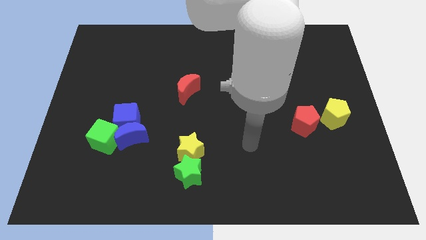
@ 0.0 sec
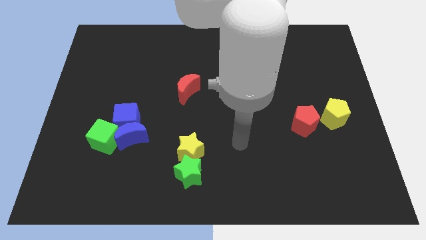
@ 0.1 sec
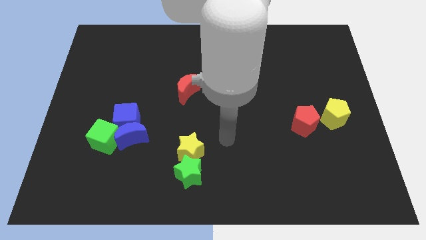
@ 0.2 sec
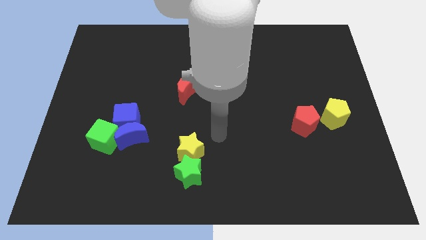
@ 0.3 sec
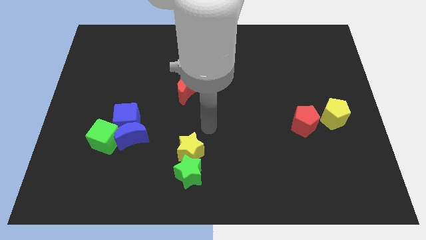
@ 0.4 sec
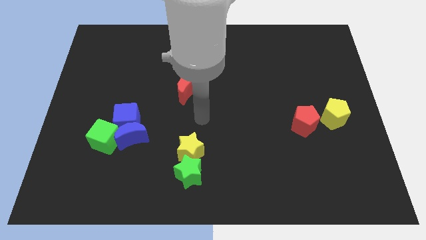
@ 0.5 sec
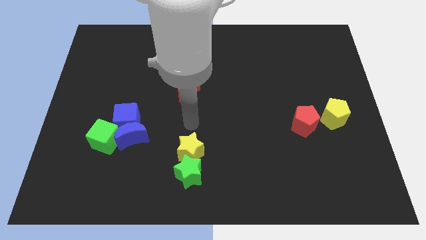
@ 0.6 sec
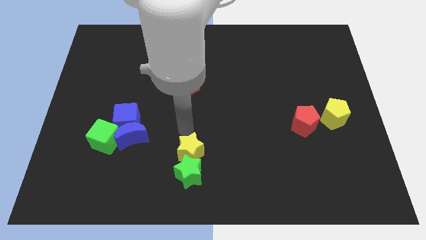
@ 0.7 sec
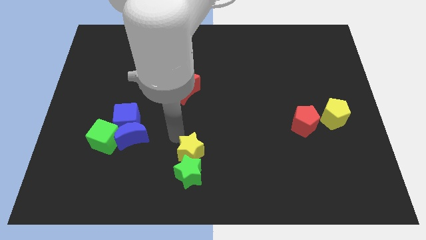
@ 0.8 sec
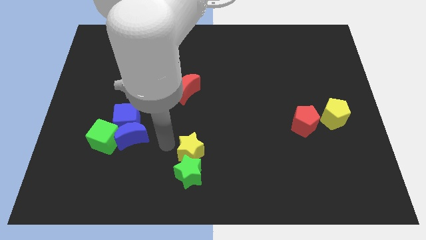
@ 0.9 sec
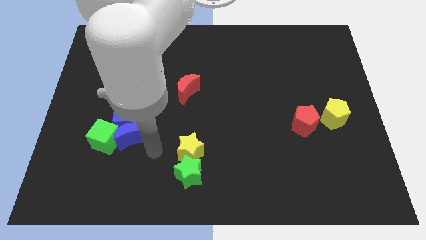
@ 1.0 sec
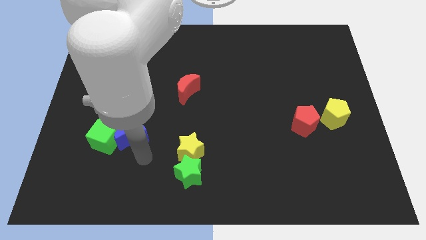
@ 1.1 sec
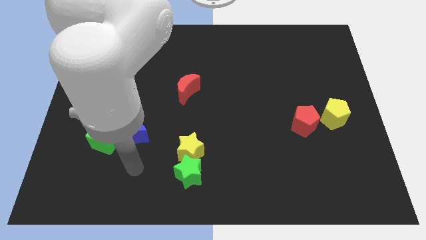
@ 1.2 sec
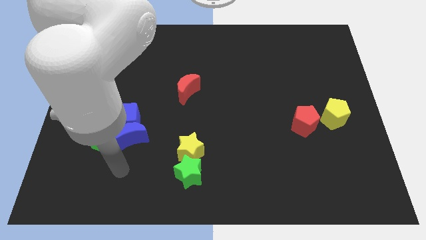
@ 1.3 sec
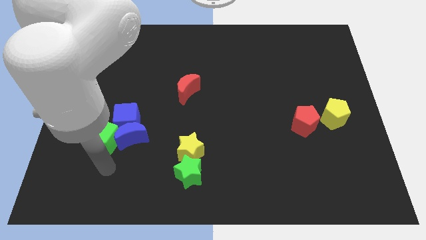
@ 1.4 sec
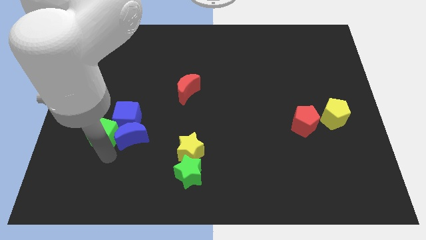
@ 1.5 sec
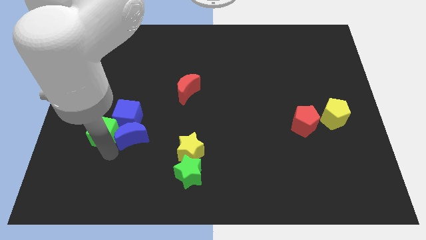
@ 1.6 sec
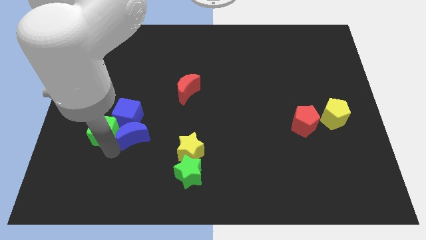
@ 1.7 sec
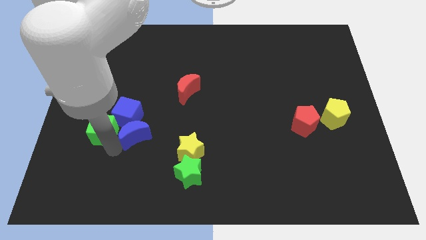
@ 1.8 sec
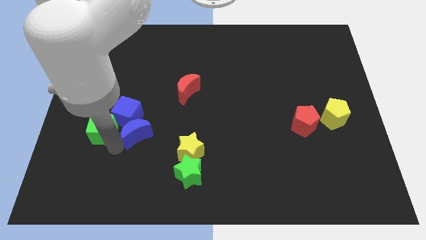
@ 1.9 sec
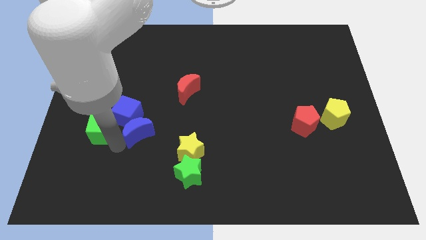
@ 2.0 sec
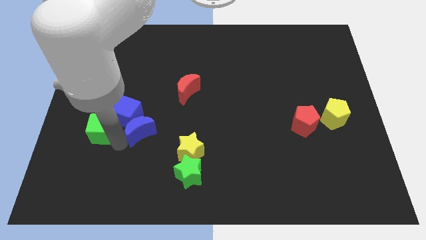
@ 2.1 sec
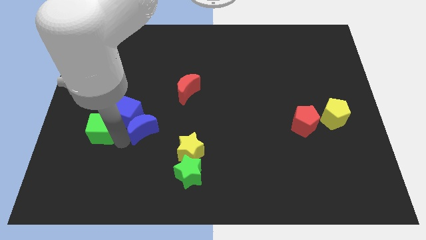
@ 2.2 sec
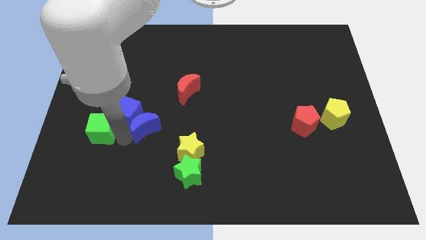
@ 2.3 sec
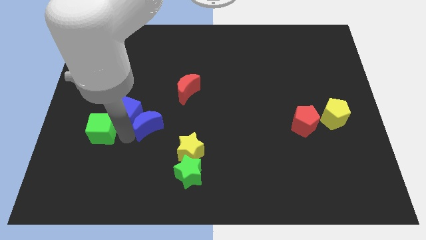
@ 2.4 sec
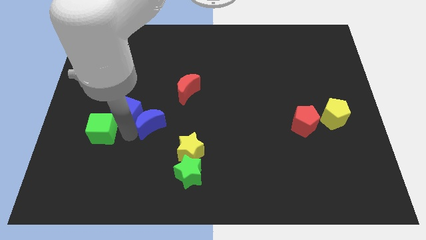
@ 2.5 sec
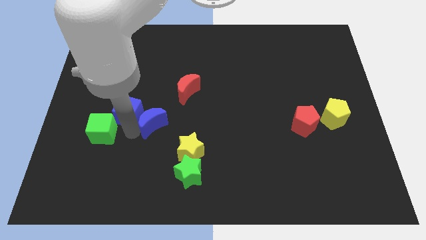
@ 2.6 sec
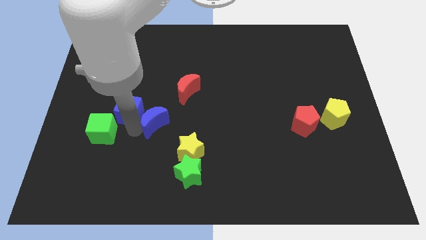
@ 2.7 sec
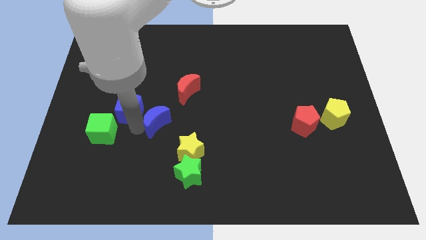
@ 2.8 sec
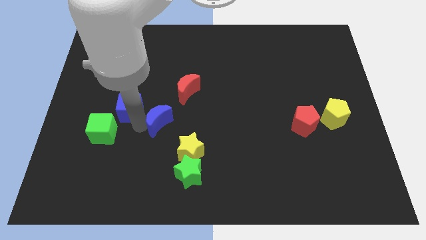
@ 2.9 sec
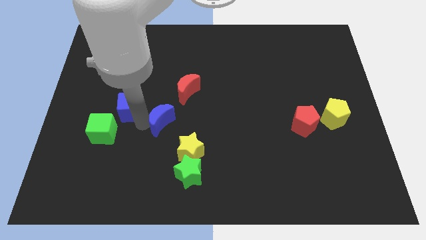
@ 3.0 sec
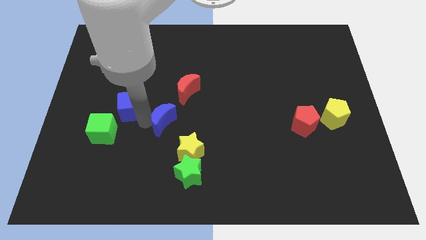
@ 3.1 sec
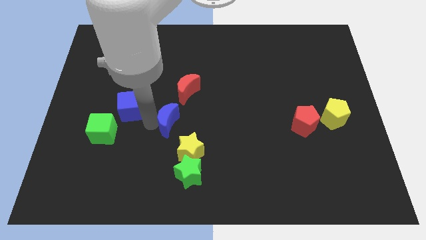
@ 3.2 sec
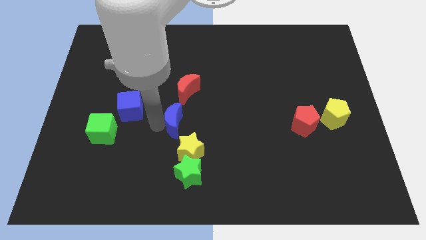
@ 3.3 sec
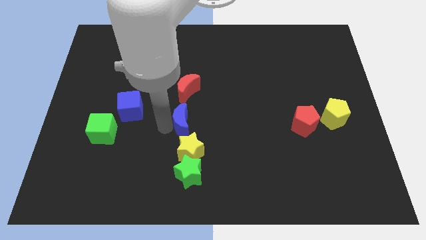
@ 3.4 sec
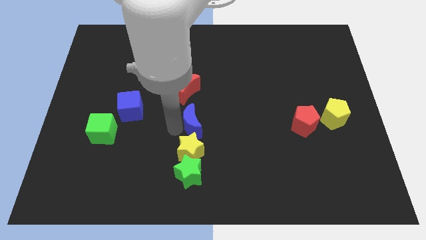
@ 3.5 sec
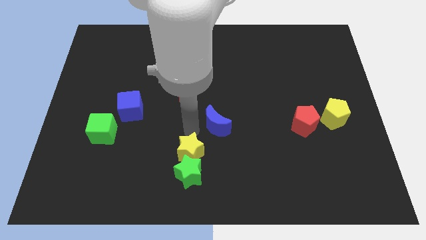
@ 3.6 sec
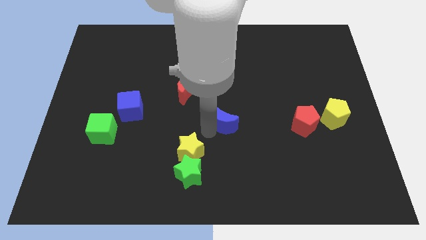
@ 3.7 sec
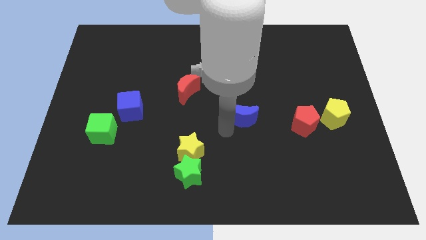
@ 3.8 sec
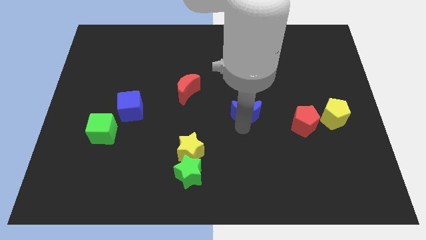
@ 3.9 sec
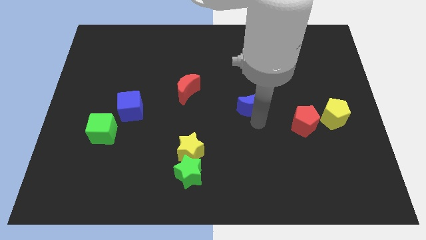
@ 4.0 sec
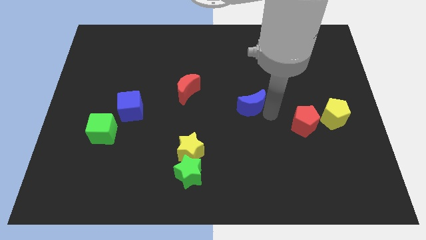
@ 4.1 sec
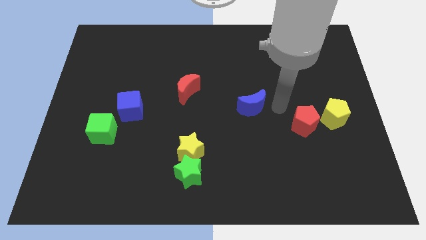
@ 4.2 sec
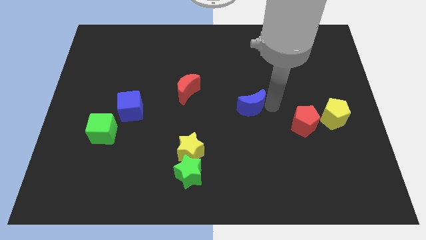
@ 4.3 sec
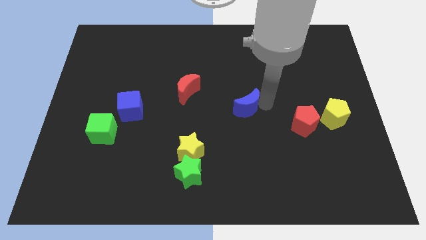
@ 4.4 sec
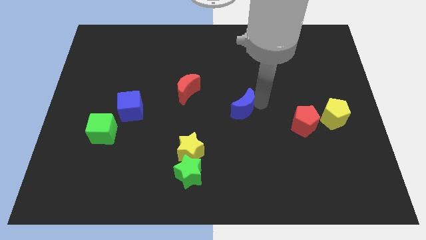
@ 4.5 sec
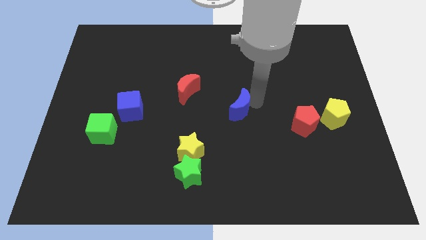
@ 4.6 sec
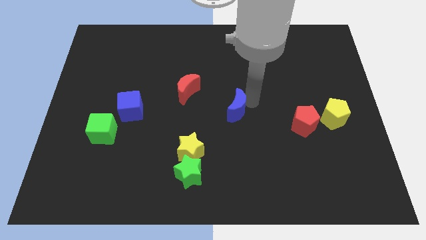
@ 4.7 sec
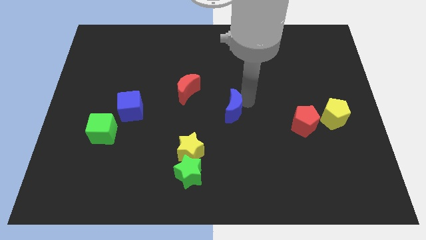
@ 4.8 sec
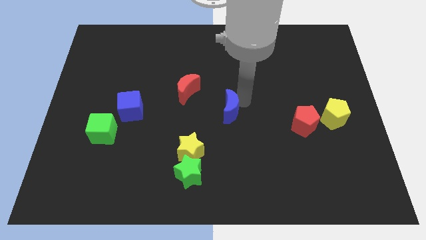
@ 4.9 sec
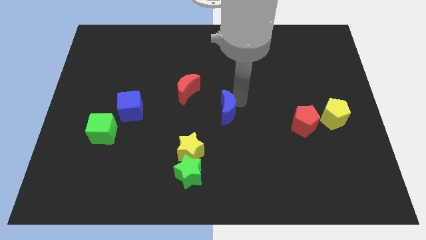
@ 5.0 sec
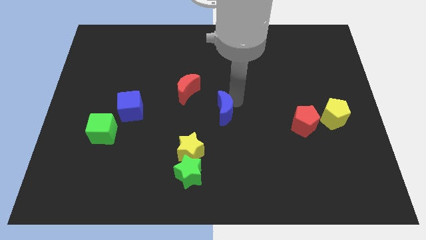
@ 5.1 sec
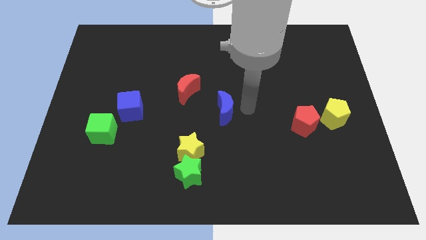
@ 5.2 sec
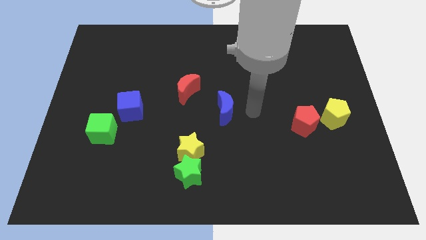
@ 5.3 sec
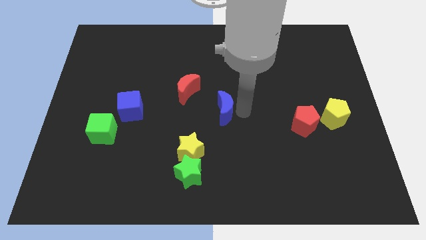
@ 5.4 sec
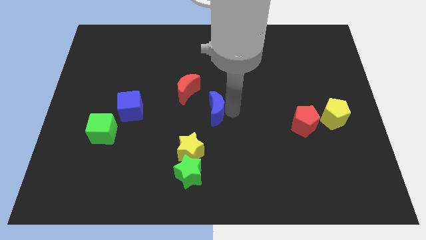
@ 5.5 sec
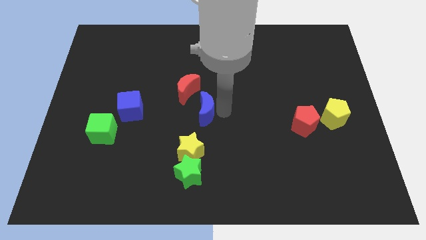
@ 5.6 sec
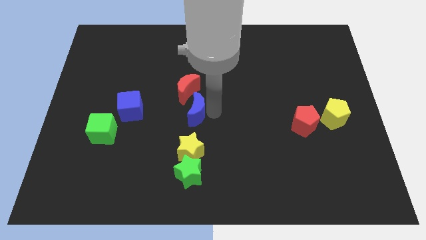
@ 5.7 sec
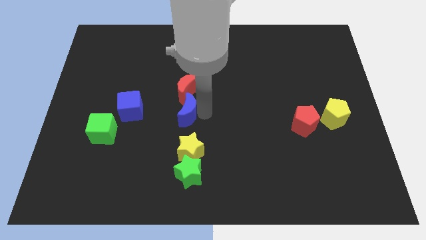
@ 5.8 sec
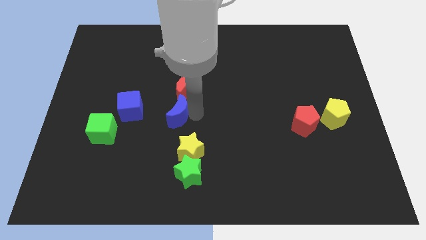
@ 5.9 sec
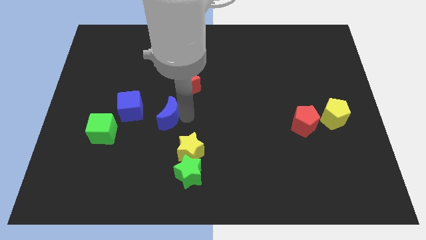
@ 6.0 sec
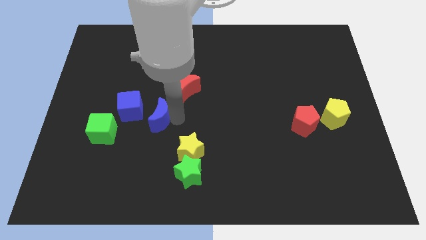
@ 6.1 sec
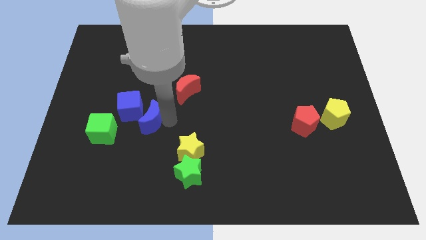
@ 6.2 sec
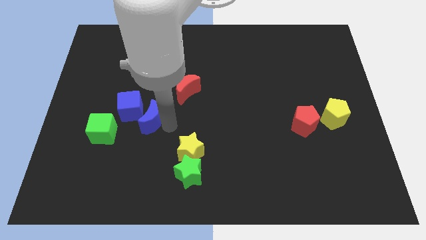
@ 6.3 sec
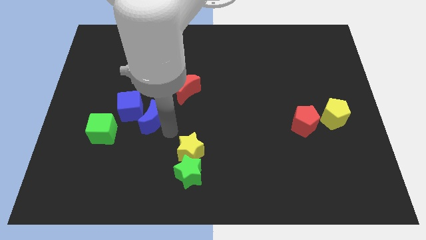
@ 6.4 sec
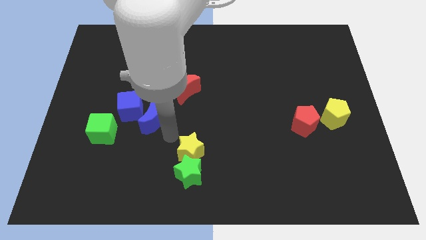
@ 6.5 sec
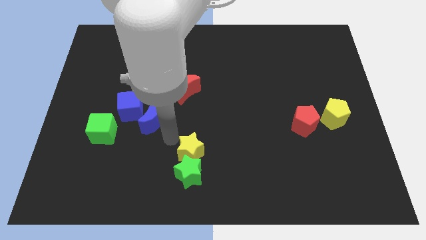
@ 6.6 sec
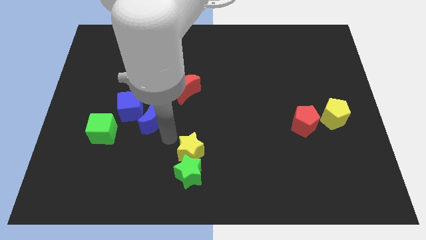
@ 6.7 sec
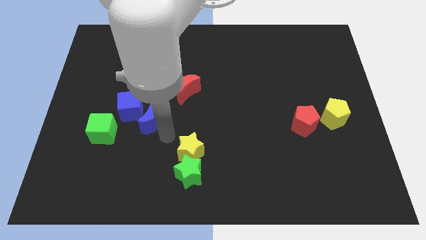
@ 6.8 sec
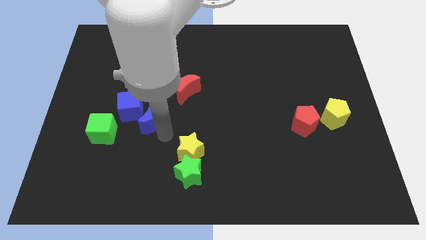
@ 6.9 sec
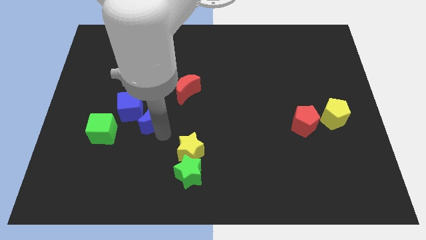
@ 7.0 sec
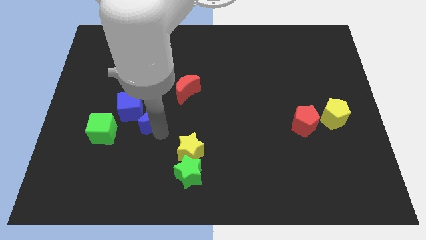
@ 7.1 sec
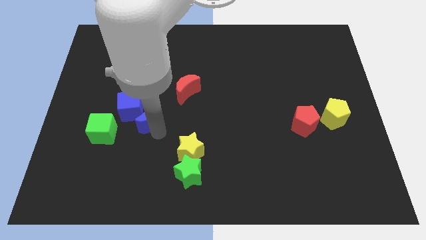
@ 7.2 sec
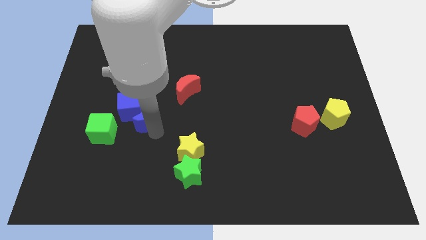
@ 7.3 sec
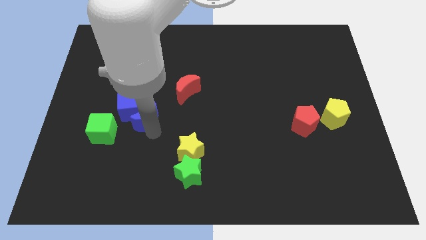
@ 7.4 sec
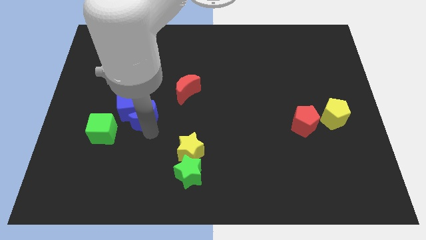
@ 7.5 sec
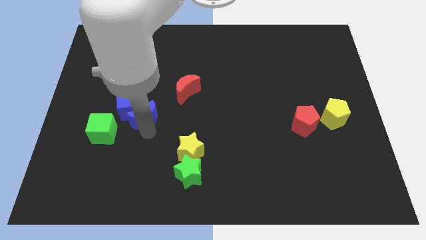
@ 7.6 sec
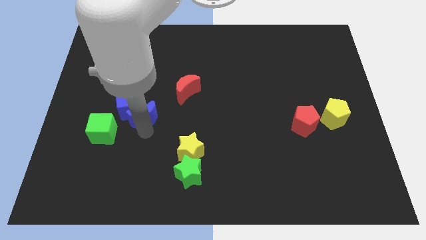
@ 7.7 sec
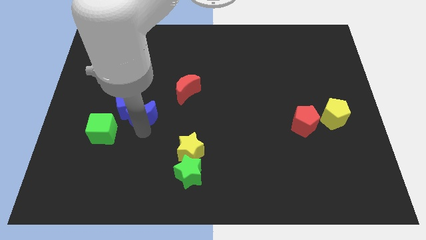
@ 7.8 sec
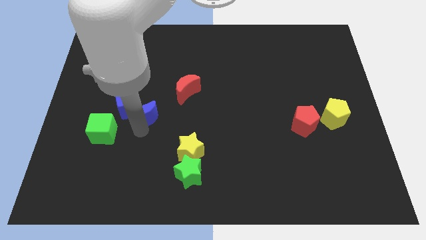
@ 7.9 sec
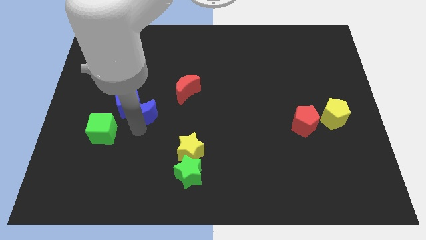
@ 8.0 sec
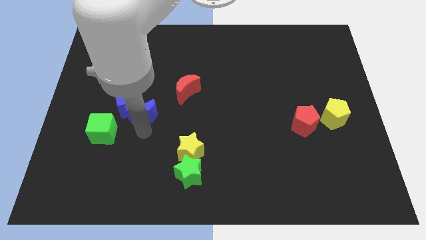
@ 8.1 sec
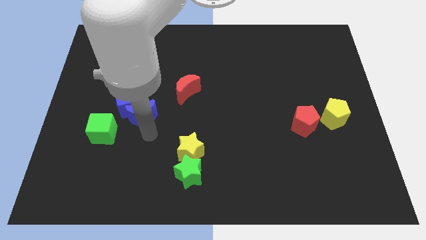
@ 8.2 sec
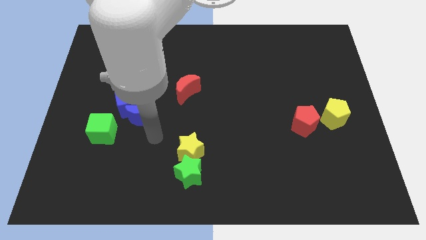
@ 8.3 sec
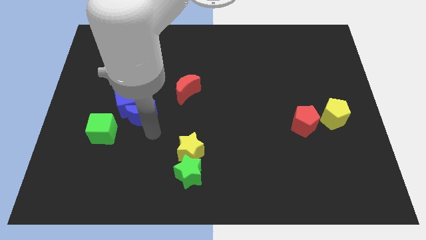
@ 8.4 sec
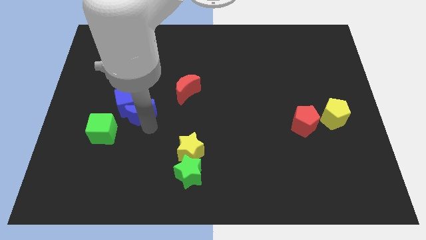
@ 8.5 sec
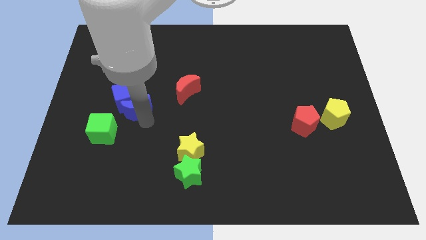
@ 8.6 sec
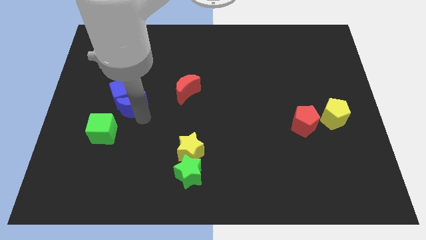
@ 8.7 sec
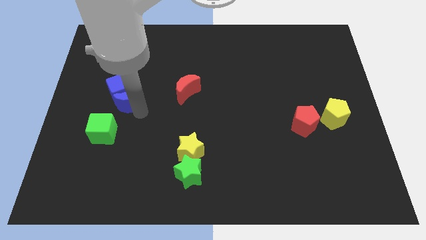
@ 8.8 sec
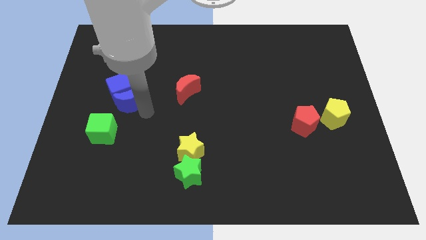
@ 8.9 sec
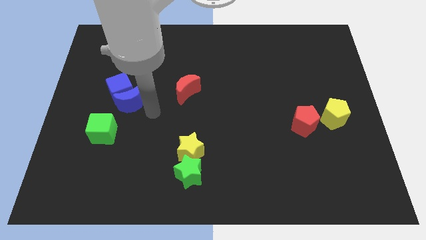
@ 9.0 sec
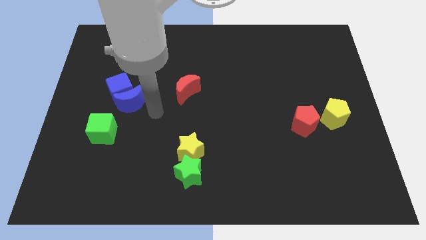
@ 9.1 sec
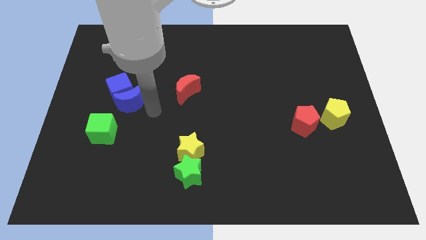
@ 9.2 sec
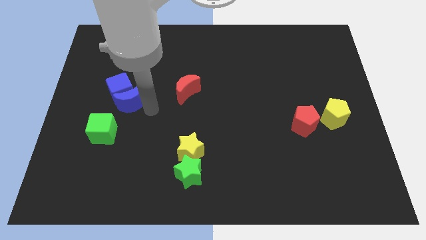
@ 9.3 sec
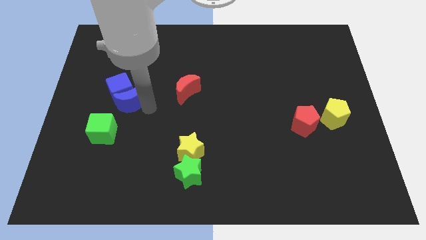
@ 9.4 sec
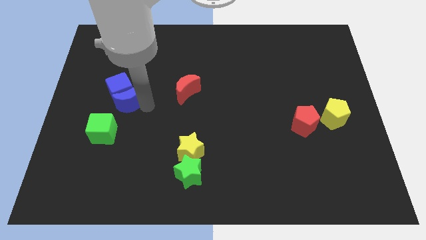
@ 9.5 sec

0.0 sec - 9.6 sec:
push the blue moon to the top of the green cube
